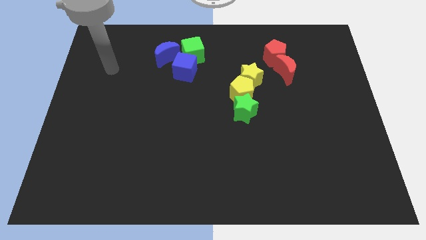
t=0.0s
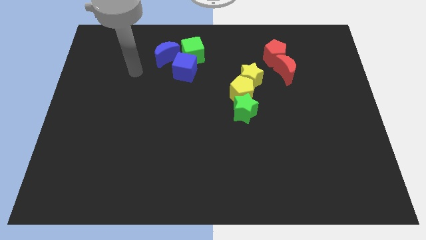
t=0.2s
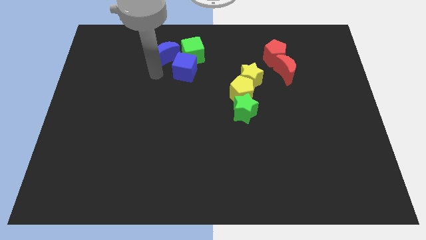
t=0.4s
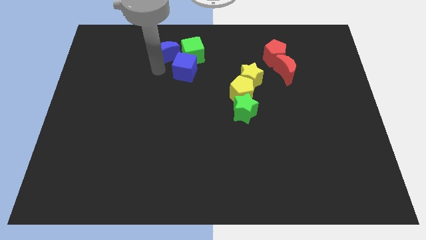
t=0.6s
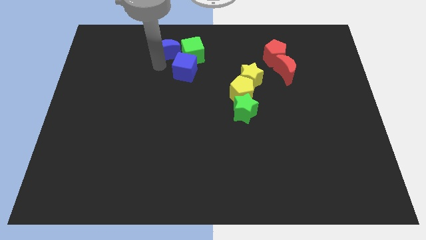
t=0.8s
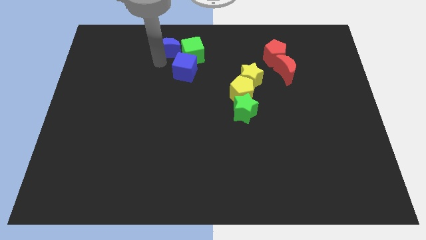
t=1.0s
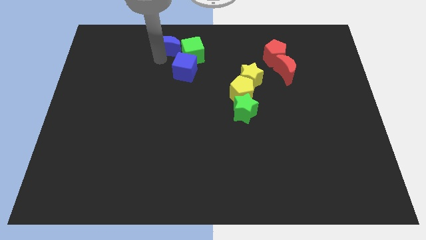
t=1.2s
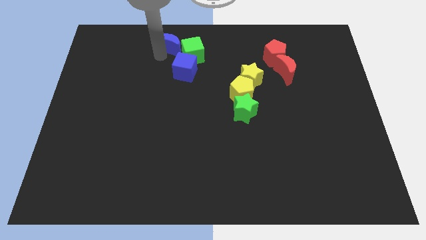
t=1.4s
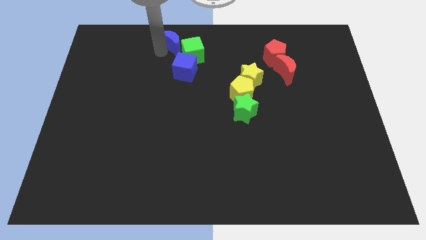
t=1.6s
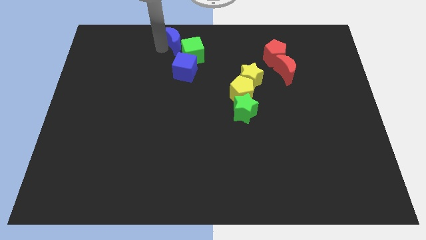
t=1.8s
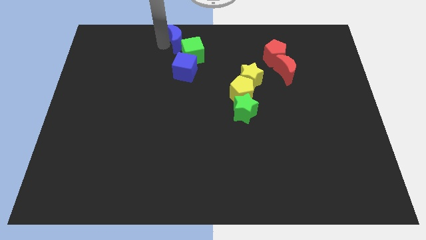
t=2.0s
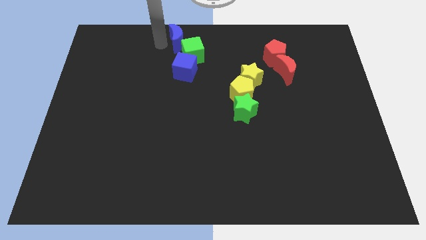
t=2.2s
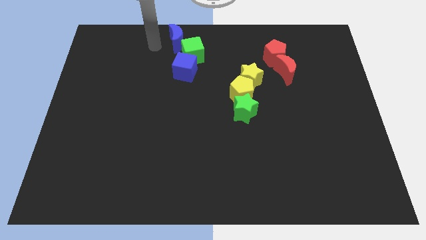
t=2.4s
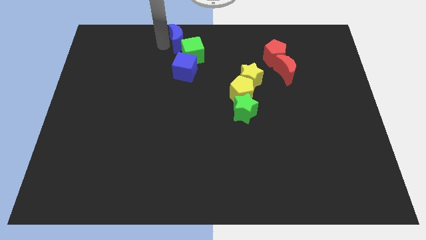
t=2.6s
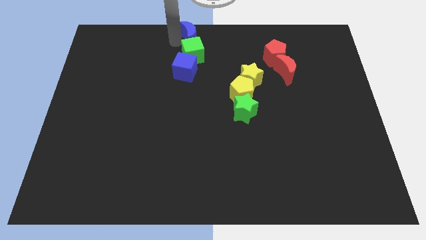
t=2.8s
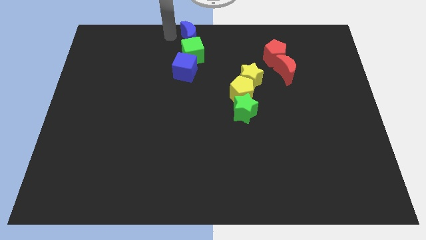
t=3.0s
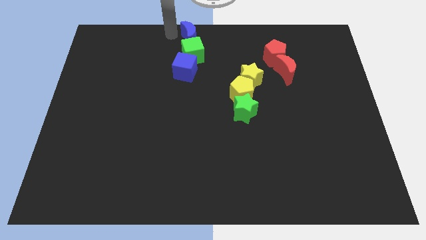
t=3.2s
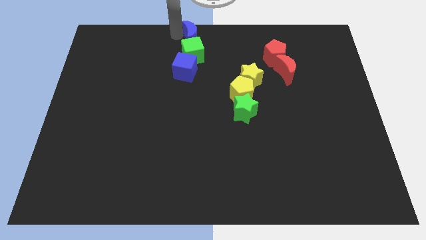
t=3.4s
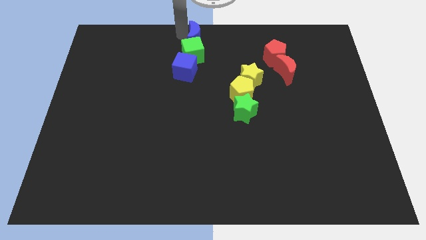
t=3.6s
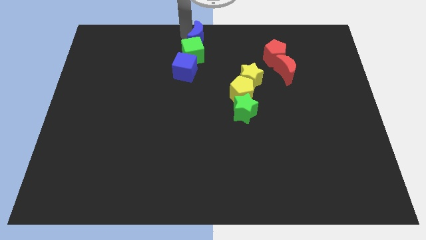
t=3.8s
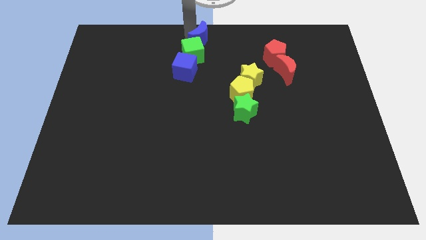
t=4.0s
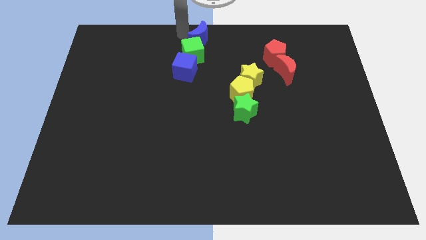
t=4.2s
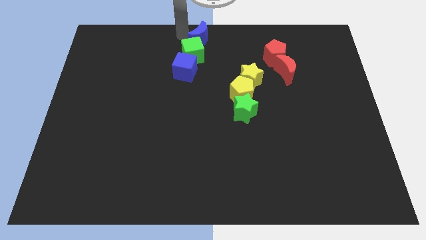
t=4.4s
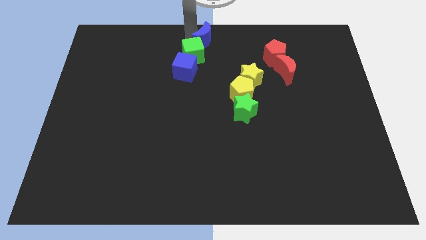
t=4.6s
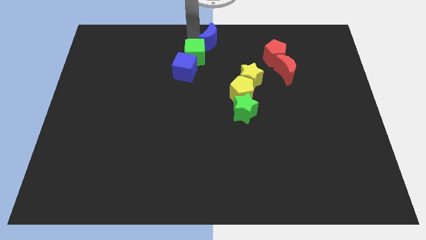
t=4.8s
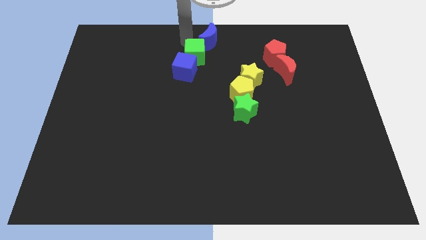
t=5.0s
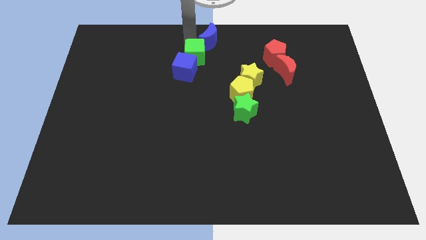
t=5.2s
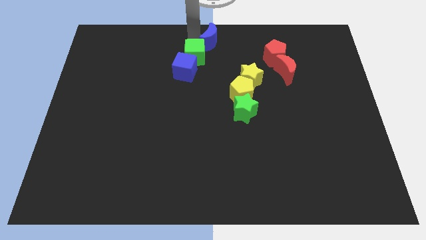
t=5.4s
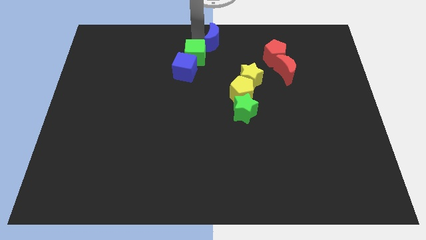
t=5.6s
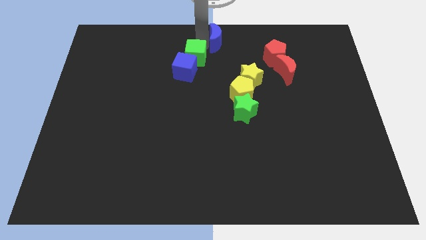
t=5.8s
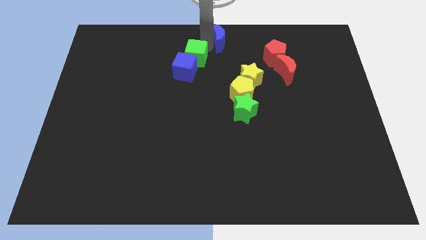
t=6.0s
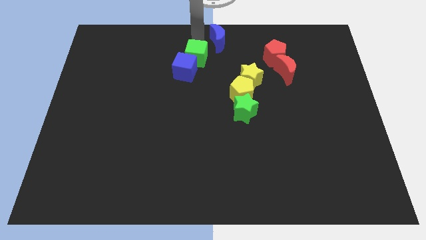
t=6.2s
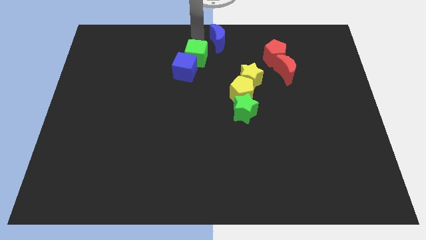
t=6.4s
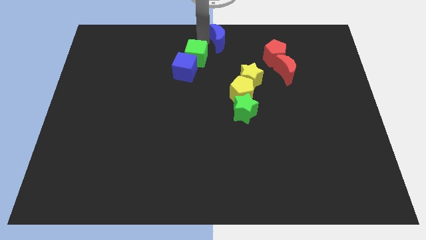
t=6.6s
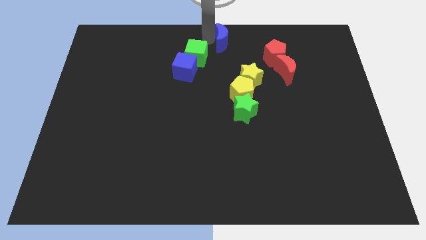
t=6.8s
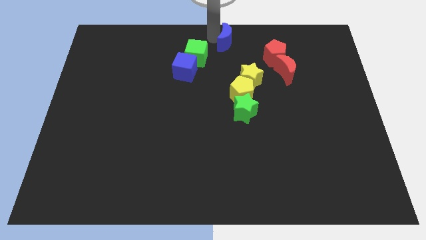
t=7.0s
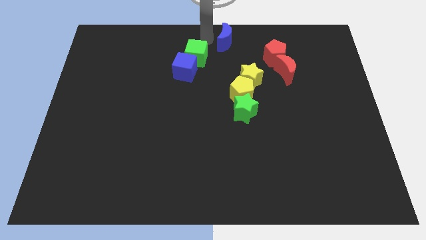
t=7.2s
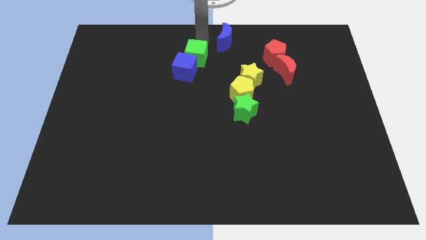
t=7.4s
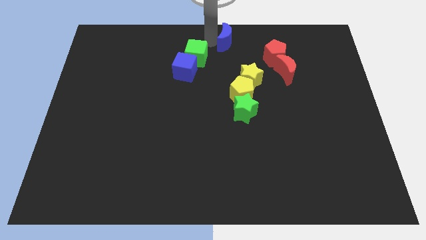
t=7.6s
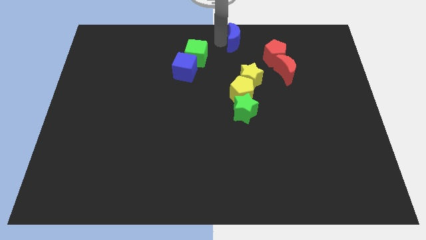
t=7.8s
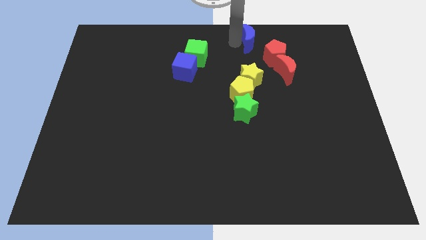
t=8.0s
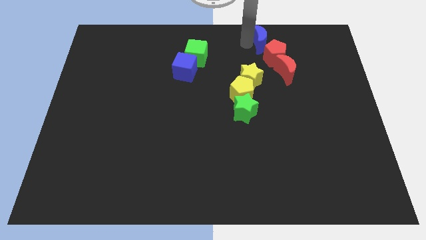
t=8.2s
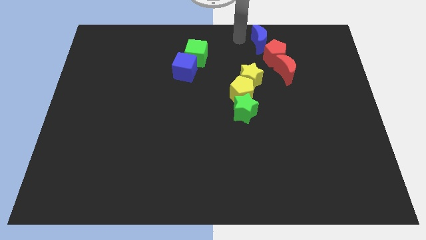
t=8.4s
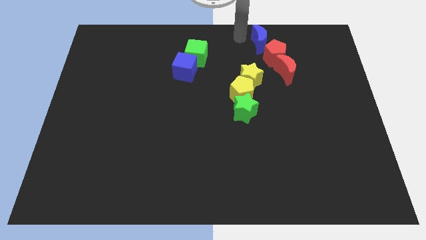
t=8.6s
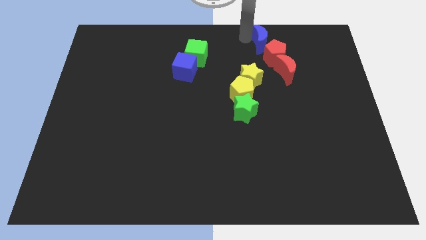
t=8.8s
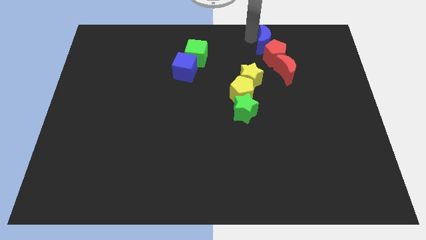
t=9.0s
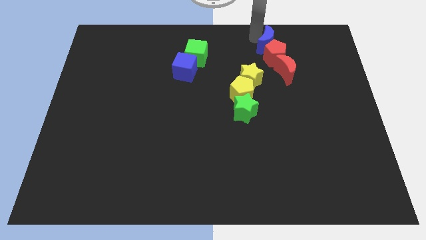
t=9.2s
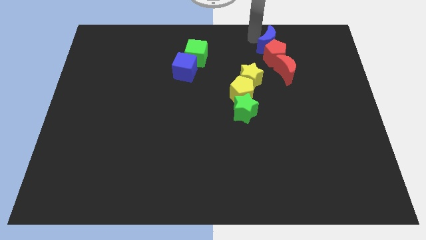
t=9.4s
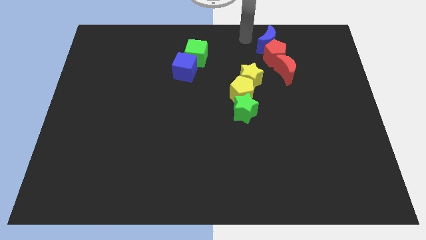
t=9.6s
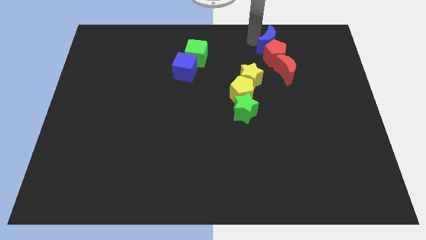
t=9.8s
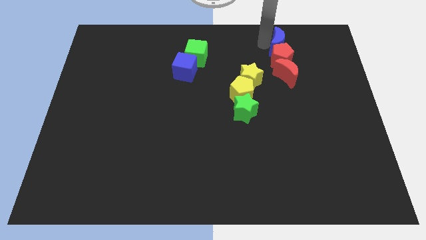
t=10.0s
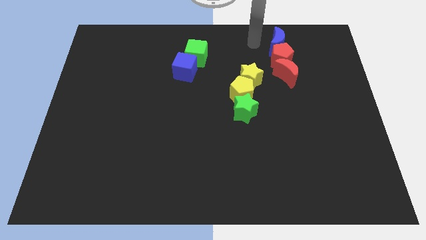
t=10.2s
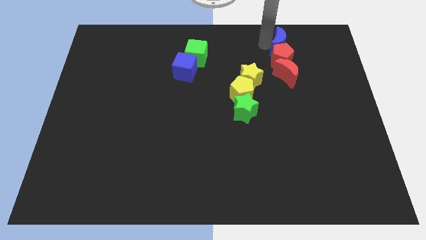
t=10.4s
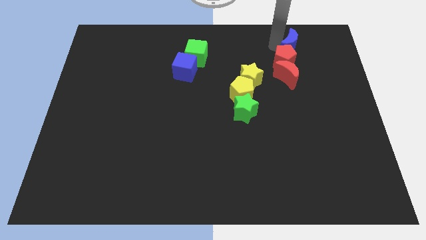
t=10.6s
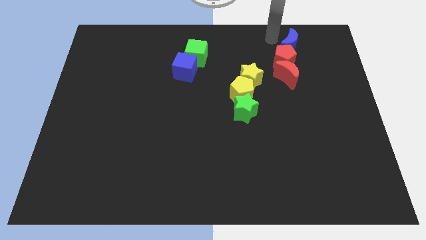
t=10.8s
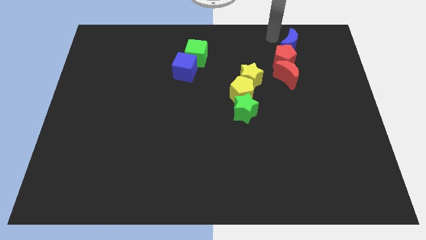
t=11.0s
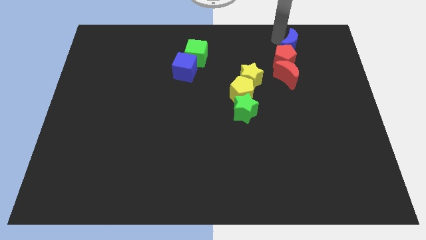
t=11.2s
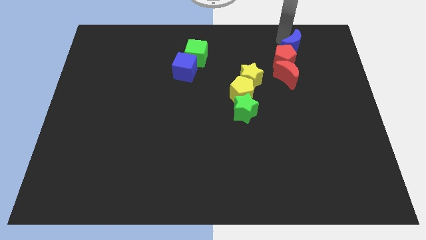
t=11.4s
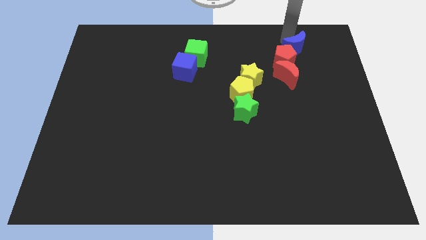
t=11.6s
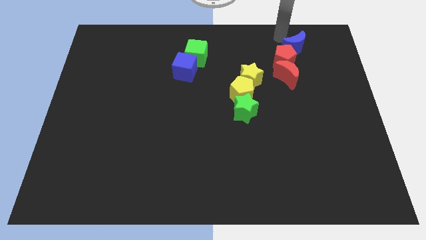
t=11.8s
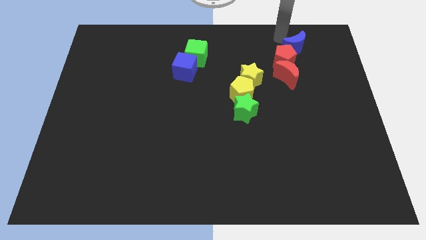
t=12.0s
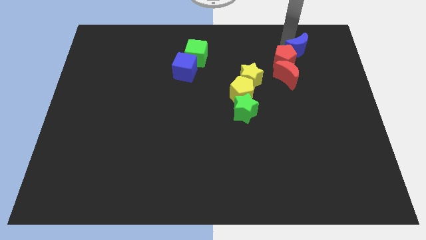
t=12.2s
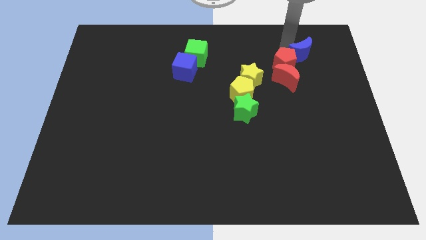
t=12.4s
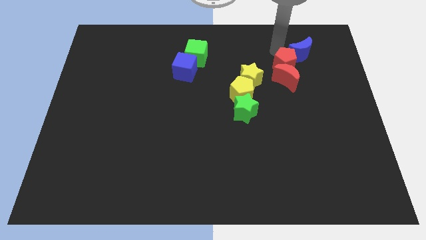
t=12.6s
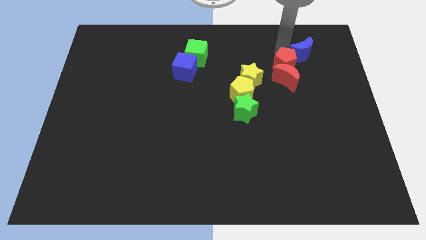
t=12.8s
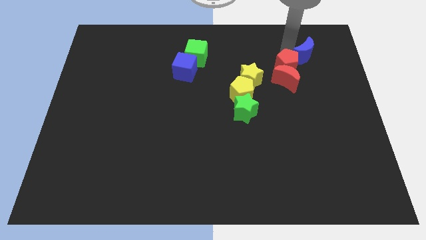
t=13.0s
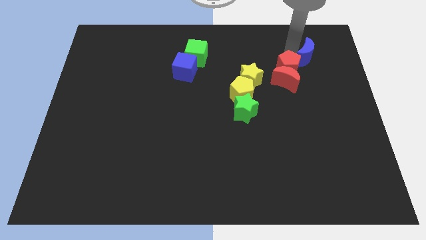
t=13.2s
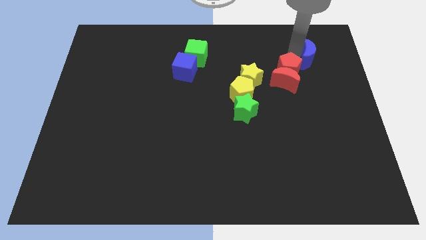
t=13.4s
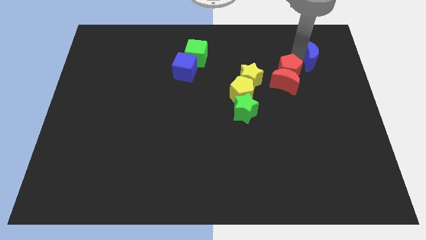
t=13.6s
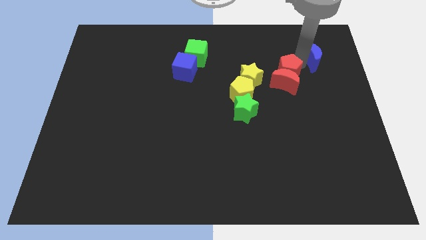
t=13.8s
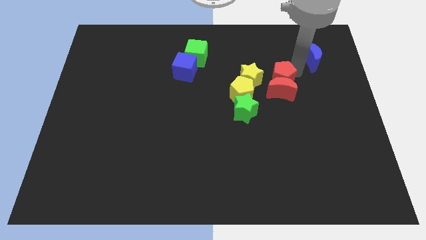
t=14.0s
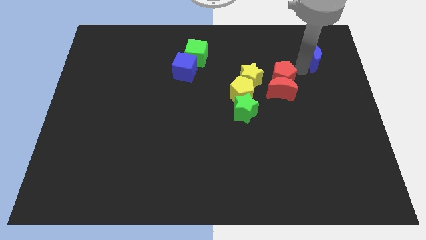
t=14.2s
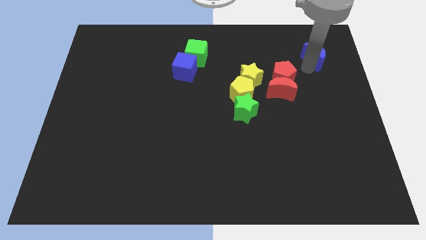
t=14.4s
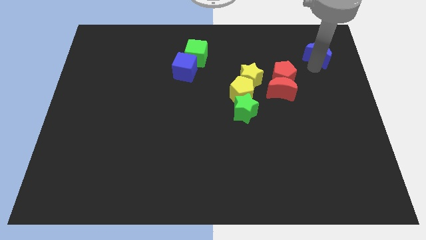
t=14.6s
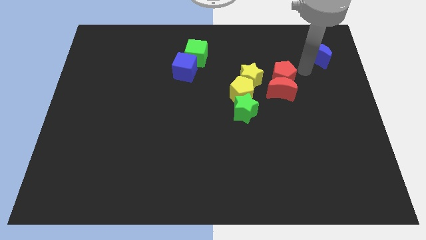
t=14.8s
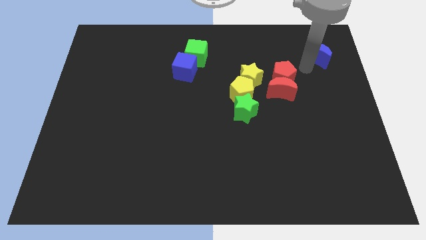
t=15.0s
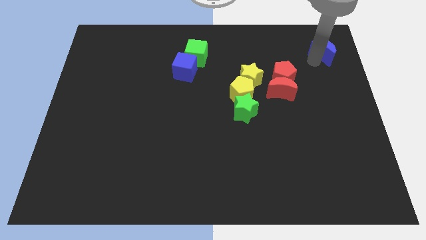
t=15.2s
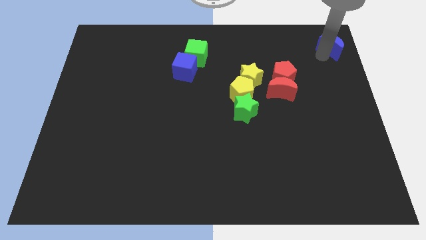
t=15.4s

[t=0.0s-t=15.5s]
move the blue moon to the top right
